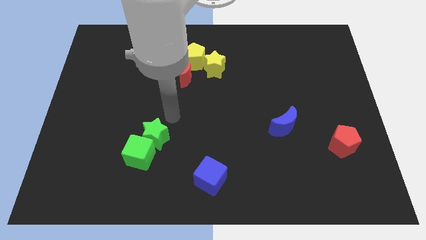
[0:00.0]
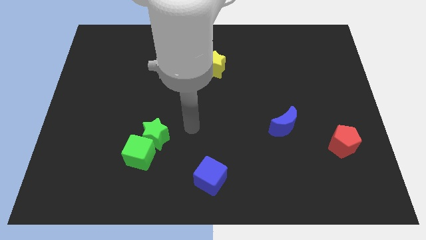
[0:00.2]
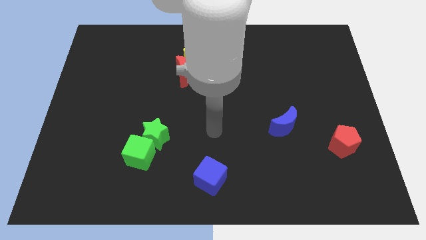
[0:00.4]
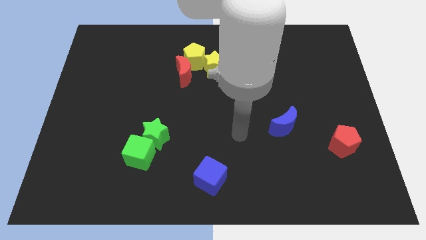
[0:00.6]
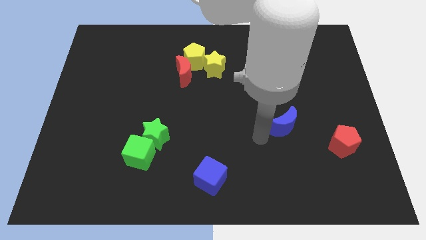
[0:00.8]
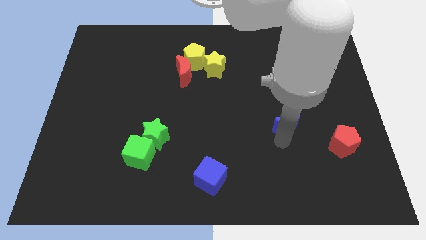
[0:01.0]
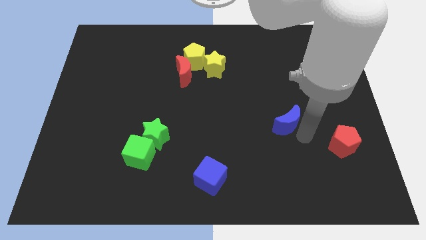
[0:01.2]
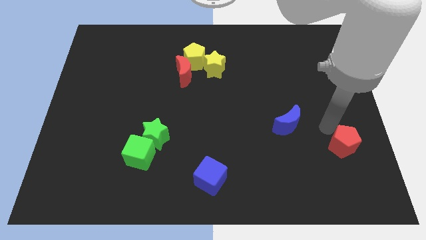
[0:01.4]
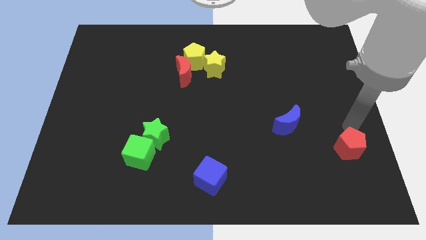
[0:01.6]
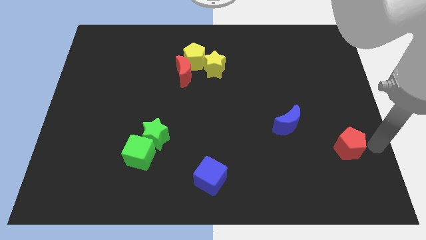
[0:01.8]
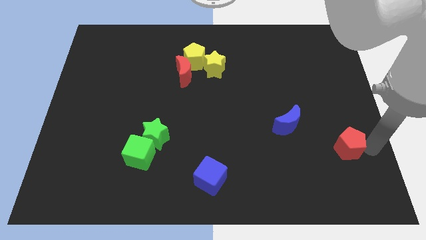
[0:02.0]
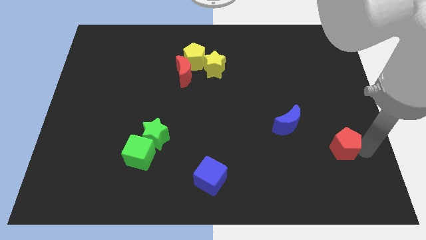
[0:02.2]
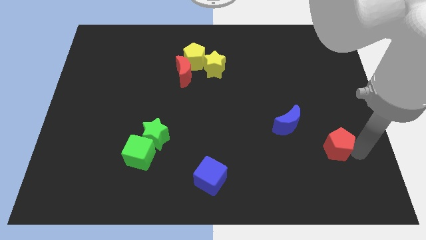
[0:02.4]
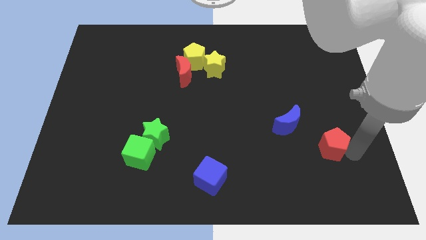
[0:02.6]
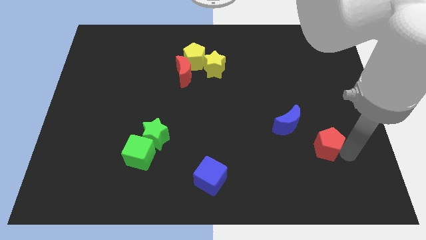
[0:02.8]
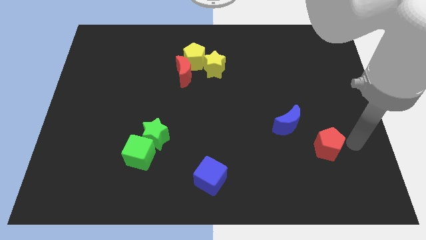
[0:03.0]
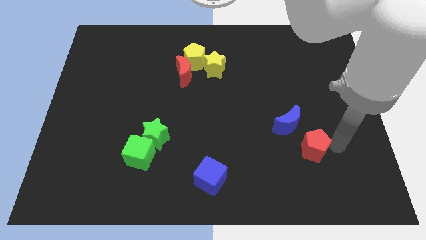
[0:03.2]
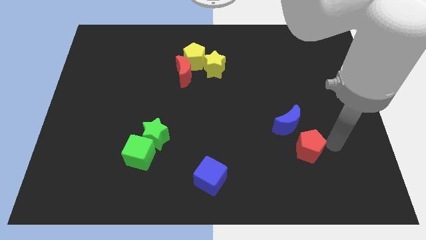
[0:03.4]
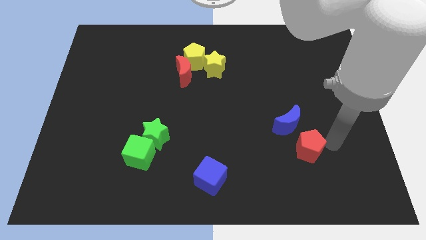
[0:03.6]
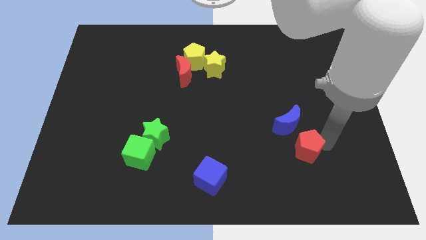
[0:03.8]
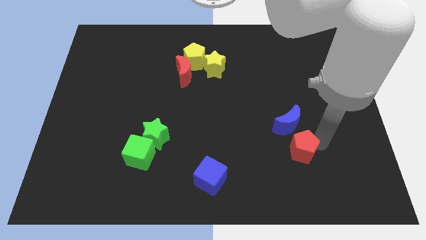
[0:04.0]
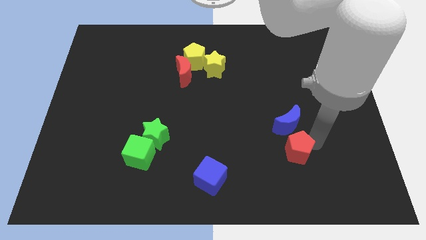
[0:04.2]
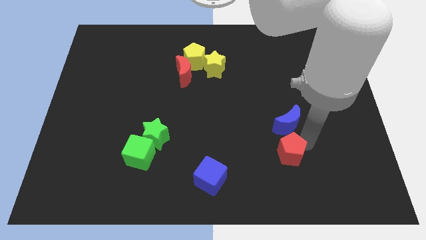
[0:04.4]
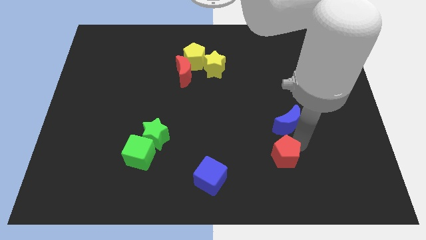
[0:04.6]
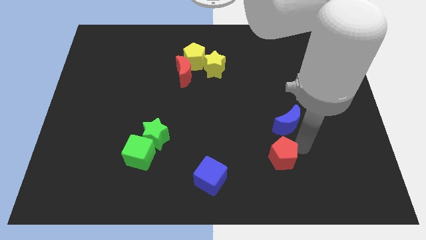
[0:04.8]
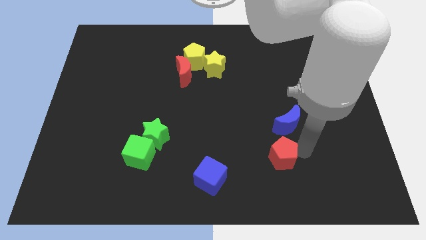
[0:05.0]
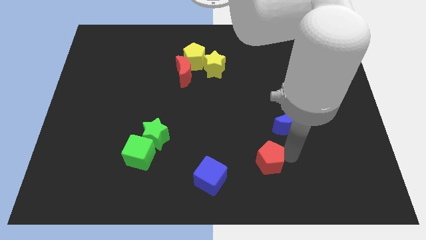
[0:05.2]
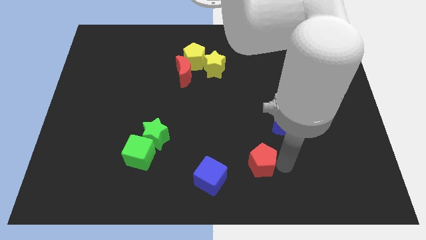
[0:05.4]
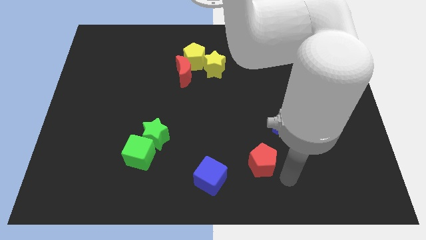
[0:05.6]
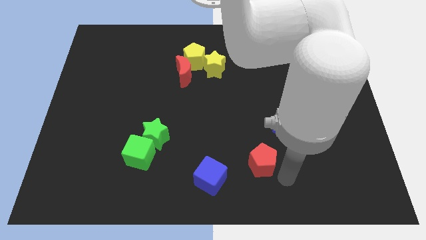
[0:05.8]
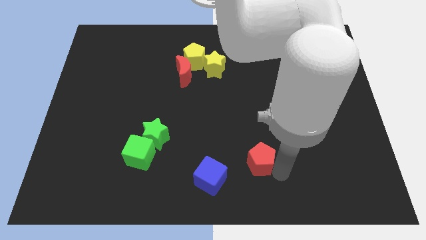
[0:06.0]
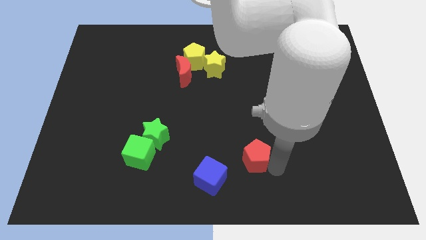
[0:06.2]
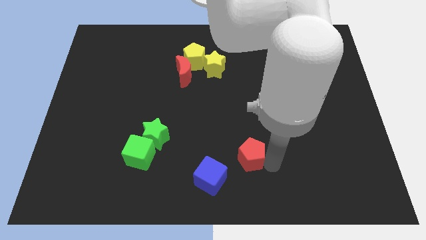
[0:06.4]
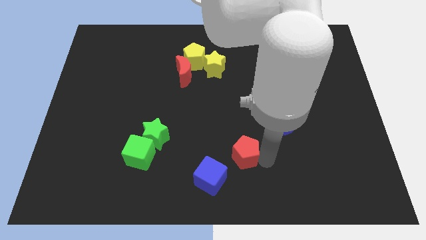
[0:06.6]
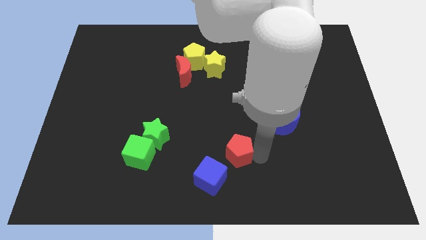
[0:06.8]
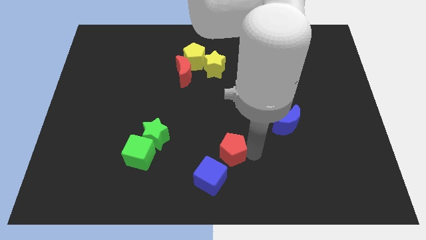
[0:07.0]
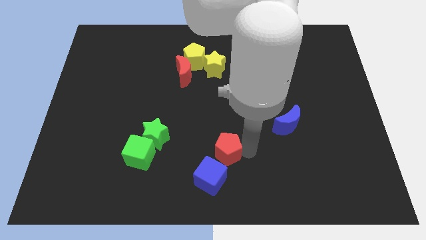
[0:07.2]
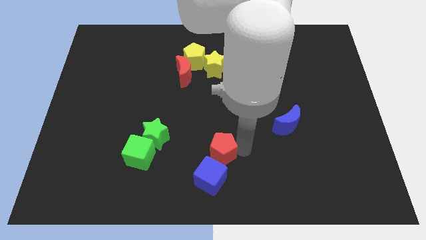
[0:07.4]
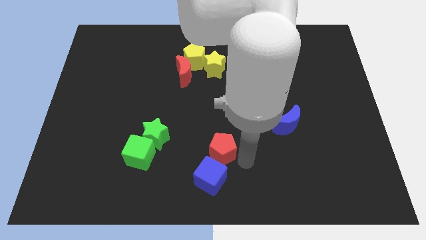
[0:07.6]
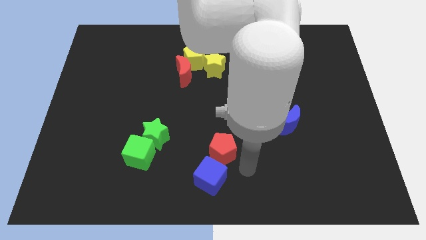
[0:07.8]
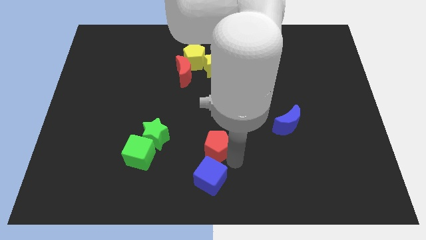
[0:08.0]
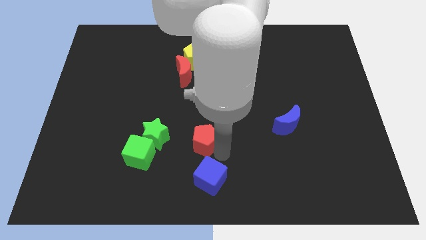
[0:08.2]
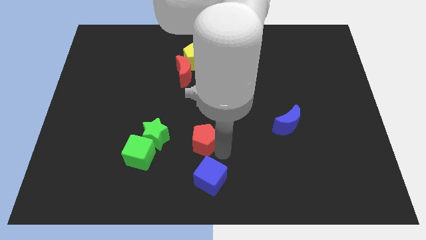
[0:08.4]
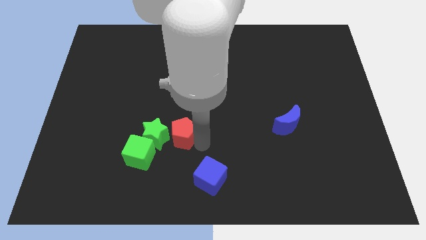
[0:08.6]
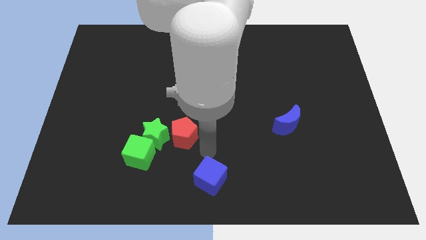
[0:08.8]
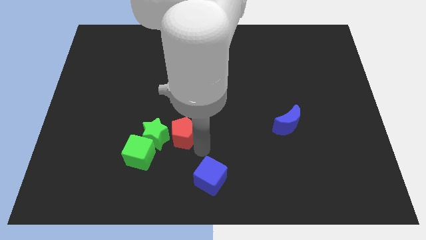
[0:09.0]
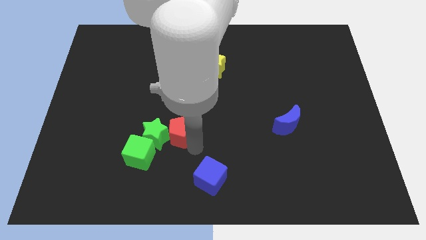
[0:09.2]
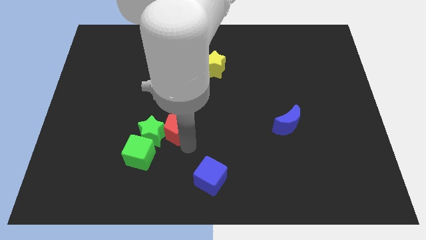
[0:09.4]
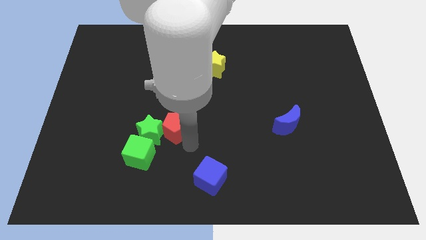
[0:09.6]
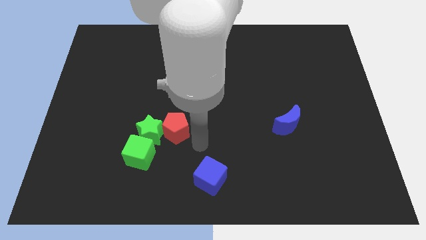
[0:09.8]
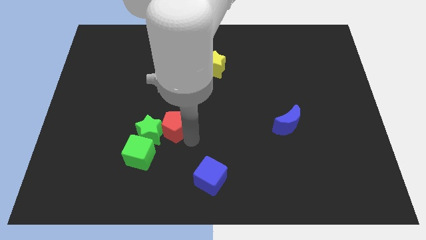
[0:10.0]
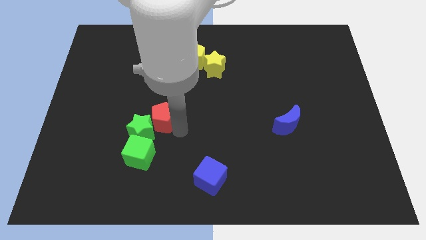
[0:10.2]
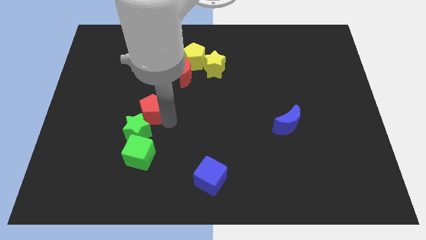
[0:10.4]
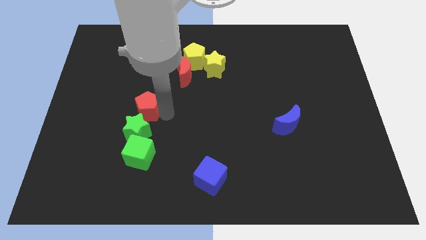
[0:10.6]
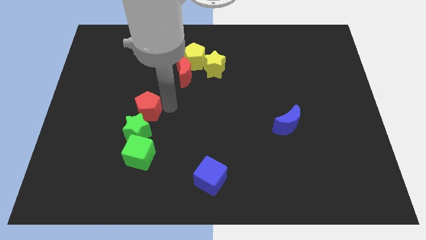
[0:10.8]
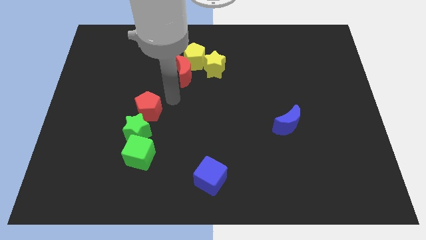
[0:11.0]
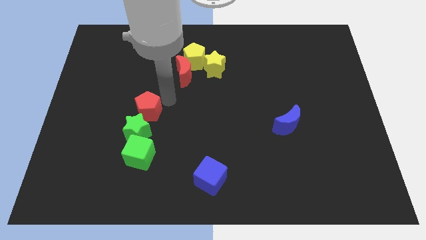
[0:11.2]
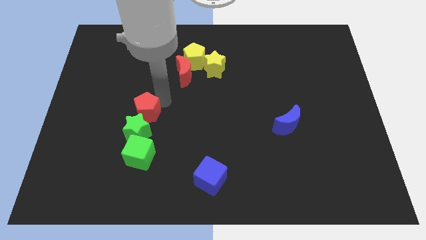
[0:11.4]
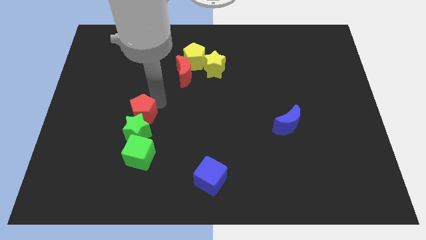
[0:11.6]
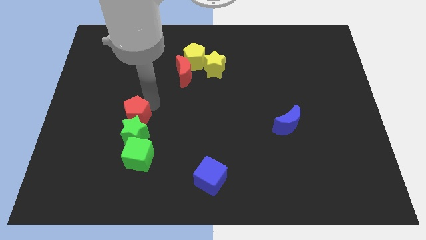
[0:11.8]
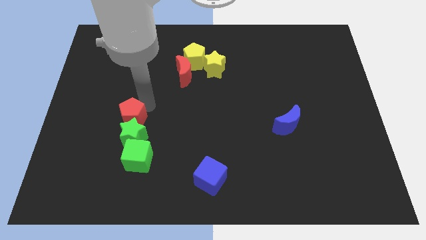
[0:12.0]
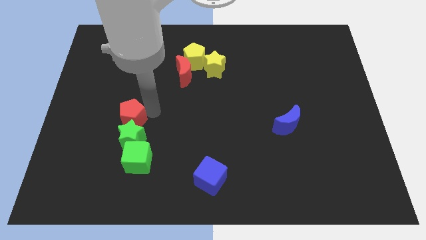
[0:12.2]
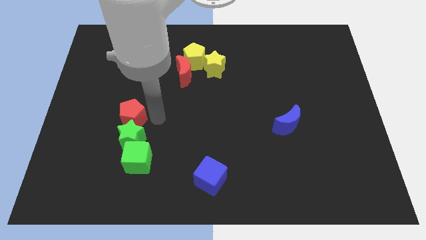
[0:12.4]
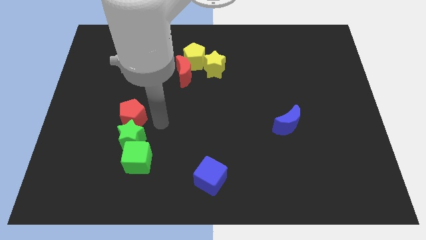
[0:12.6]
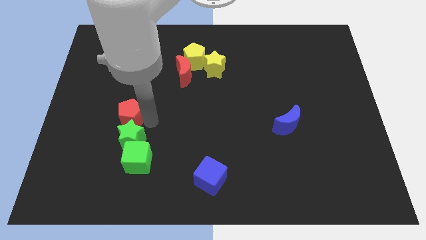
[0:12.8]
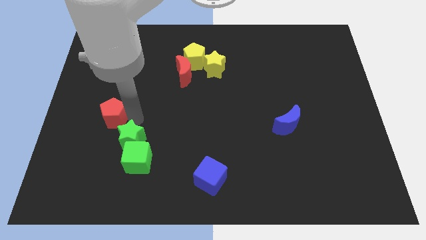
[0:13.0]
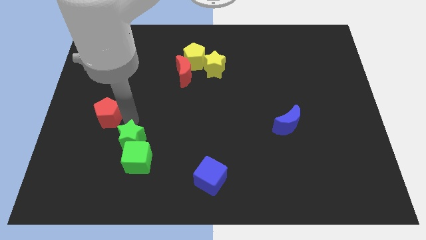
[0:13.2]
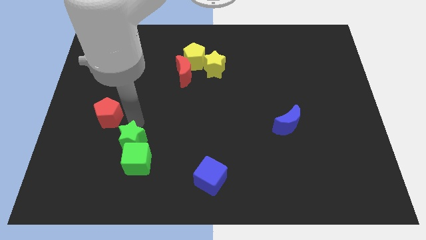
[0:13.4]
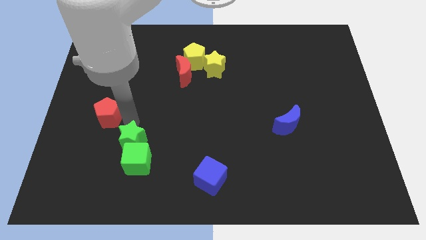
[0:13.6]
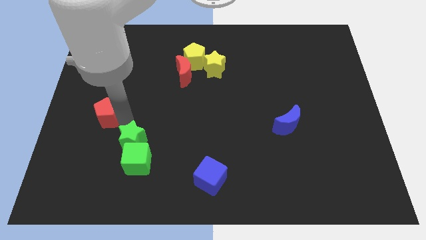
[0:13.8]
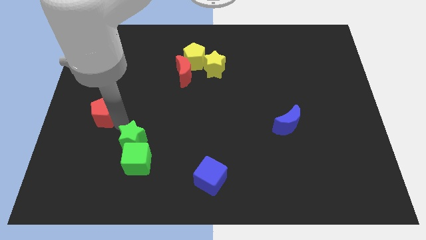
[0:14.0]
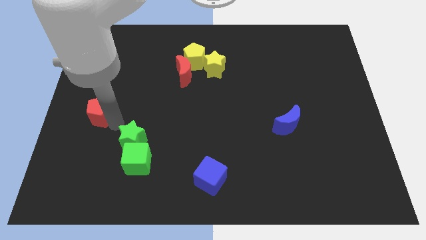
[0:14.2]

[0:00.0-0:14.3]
put the red pentagon to the center left

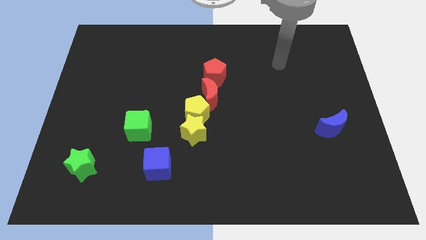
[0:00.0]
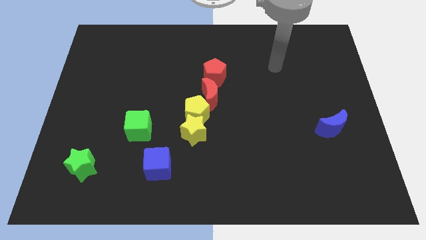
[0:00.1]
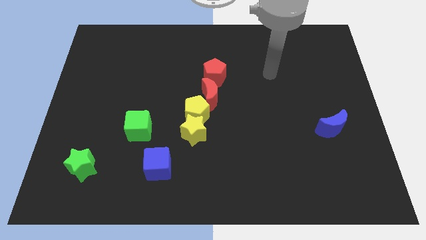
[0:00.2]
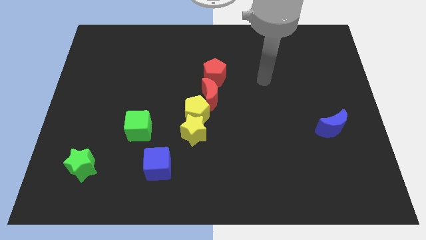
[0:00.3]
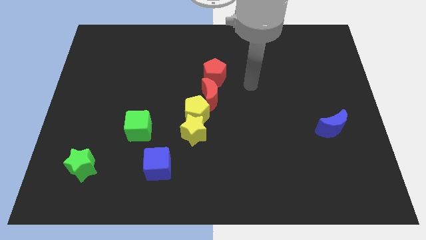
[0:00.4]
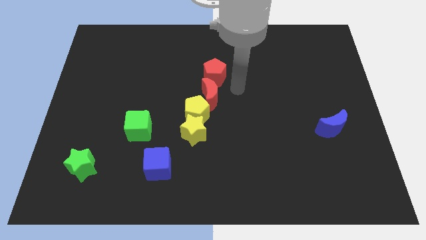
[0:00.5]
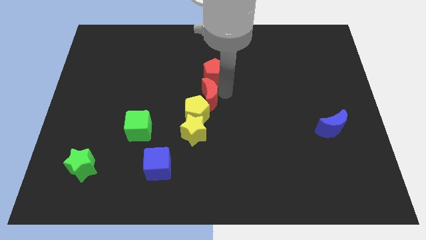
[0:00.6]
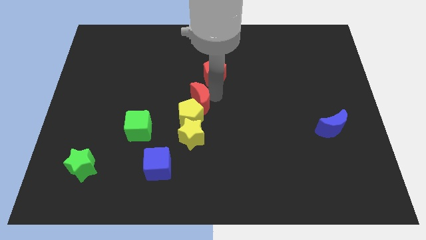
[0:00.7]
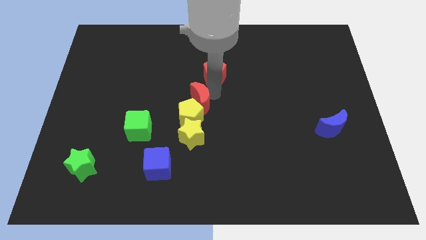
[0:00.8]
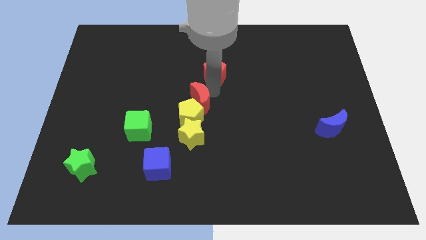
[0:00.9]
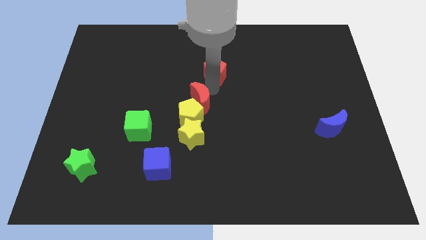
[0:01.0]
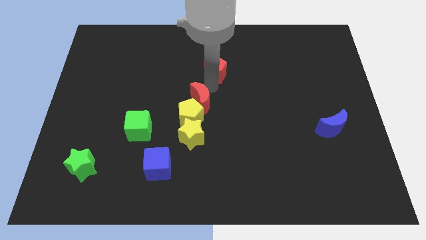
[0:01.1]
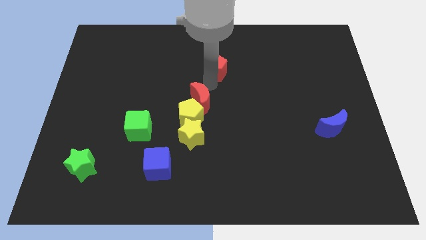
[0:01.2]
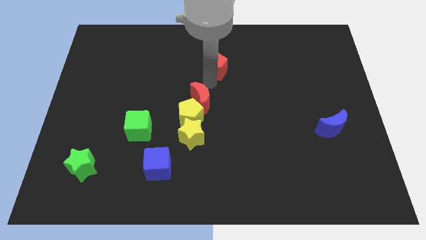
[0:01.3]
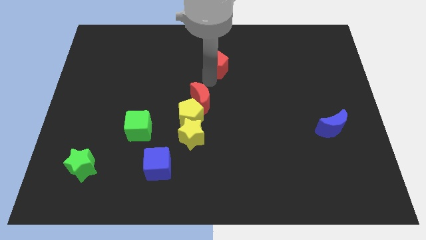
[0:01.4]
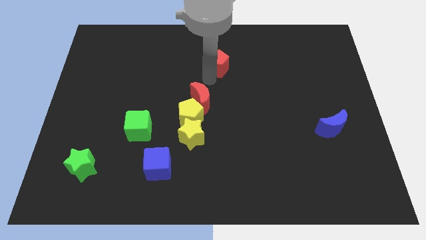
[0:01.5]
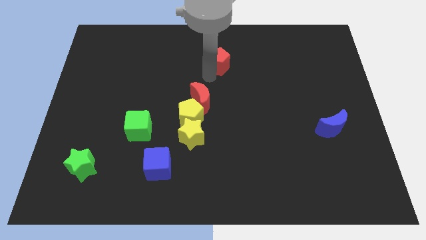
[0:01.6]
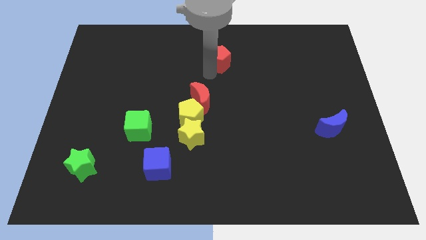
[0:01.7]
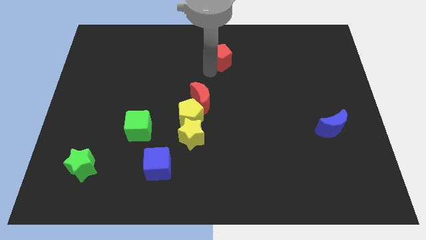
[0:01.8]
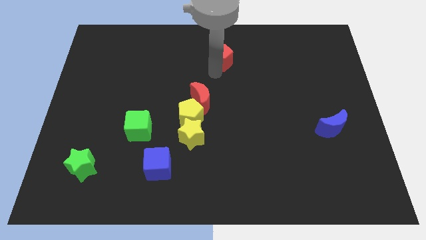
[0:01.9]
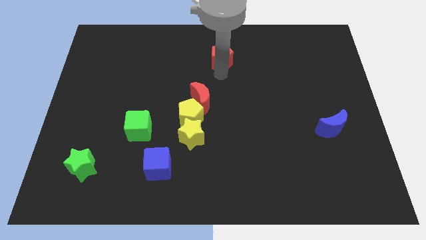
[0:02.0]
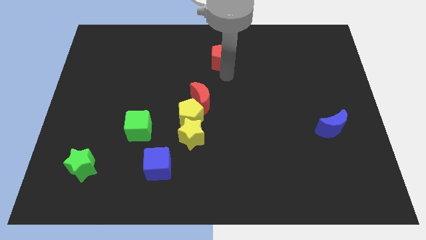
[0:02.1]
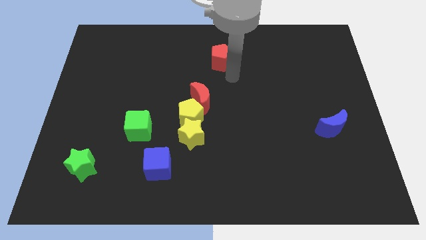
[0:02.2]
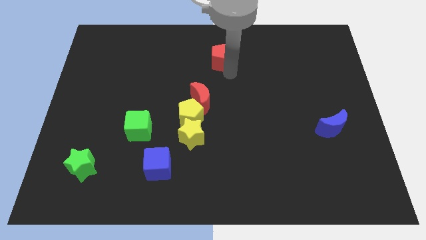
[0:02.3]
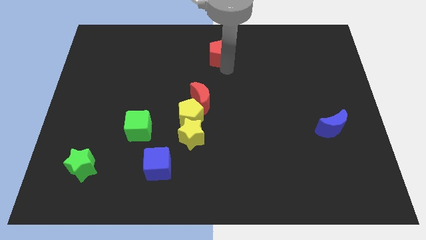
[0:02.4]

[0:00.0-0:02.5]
put the red pentagon to the top
